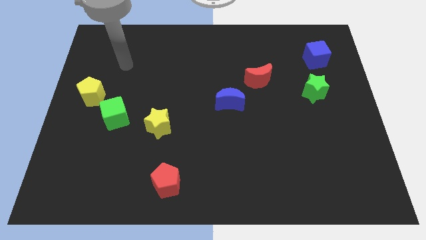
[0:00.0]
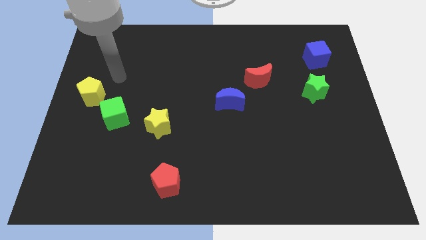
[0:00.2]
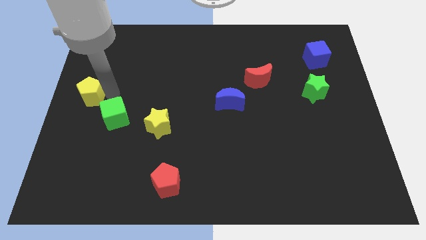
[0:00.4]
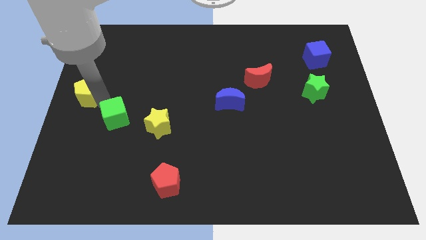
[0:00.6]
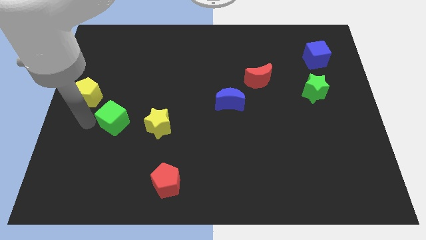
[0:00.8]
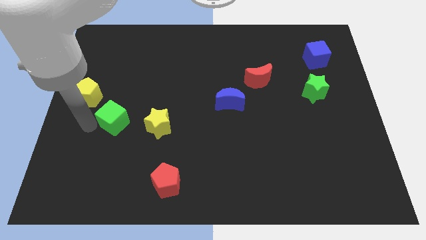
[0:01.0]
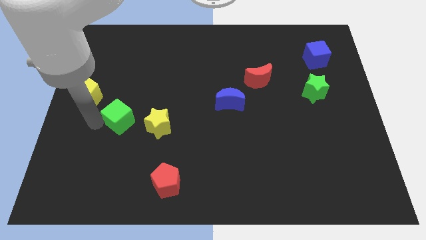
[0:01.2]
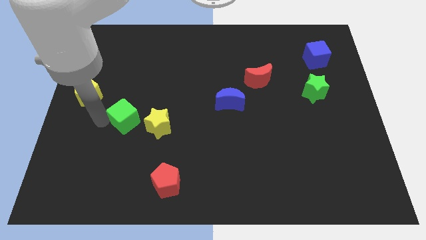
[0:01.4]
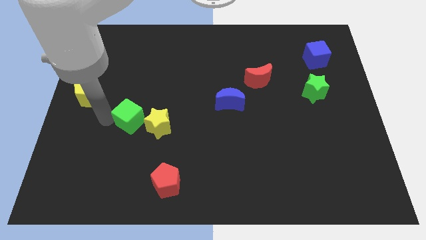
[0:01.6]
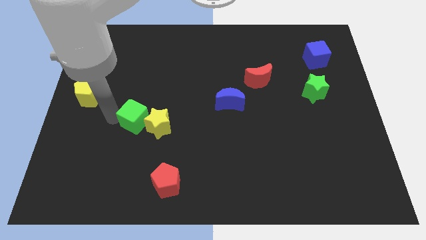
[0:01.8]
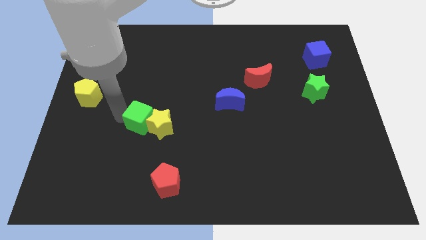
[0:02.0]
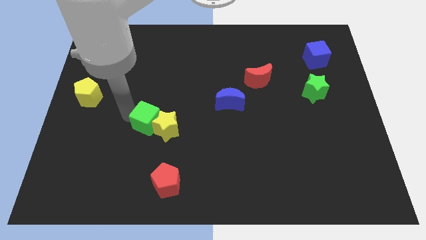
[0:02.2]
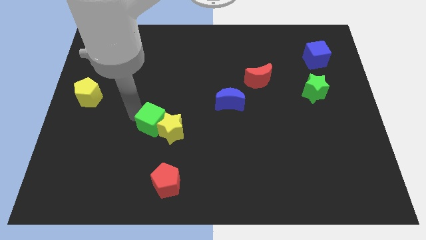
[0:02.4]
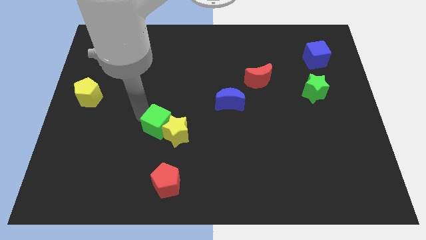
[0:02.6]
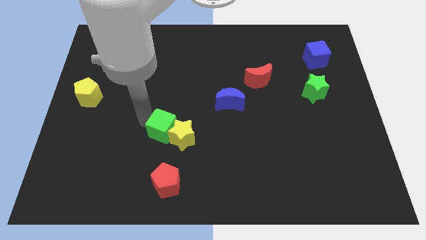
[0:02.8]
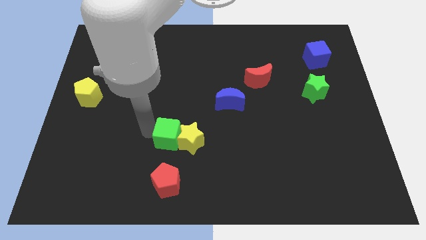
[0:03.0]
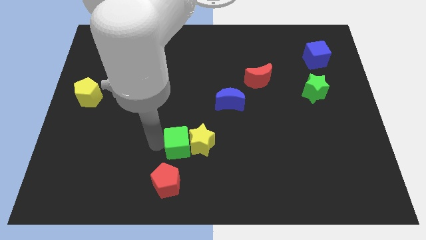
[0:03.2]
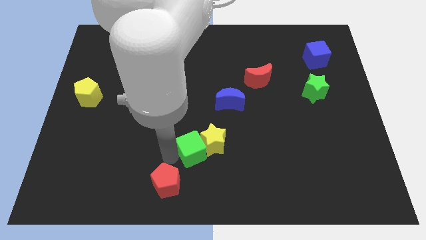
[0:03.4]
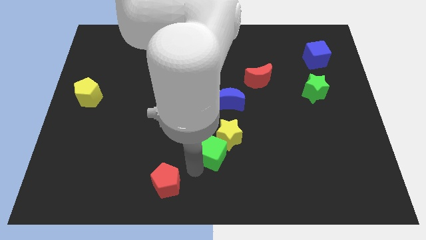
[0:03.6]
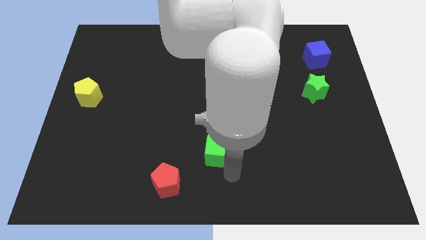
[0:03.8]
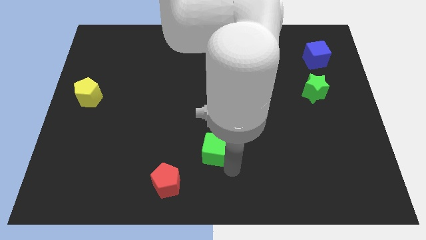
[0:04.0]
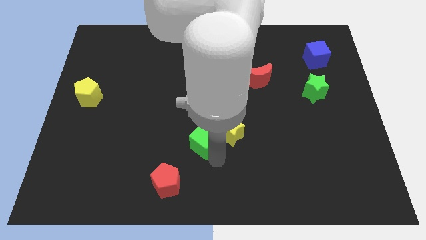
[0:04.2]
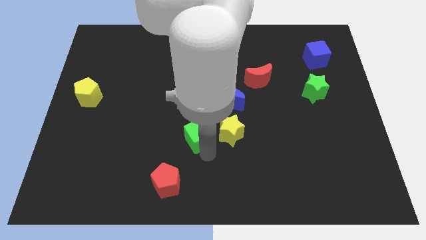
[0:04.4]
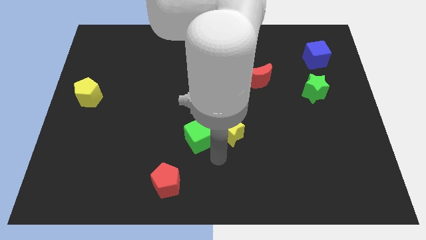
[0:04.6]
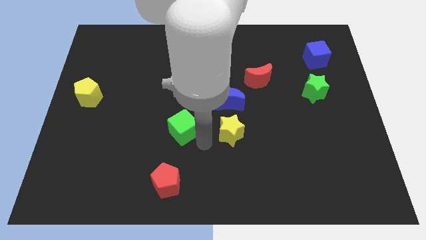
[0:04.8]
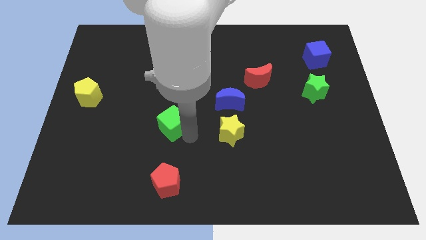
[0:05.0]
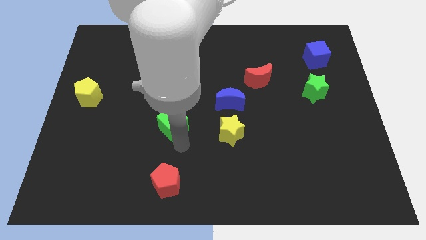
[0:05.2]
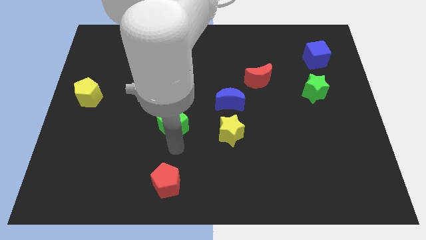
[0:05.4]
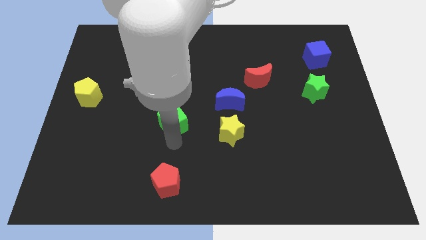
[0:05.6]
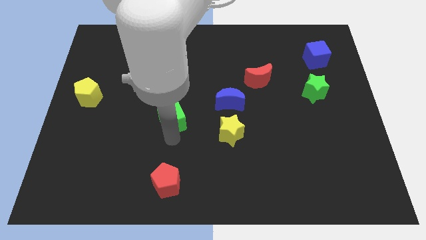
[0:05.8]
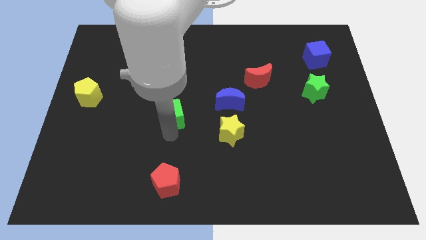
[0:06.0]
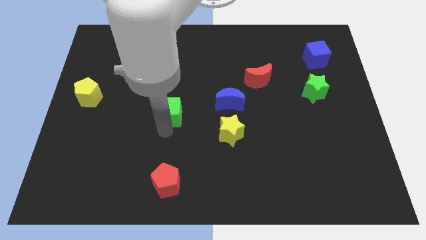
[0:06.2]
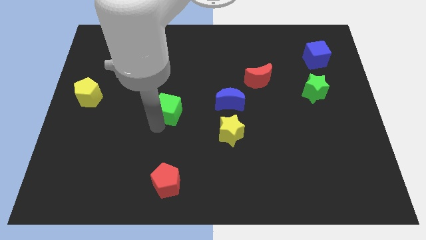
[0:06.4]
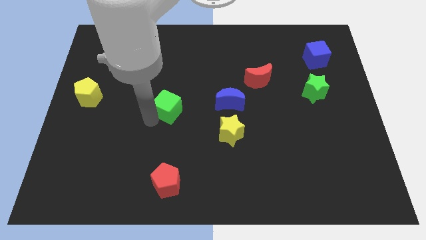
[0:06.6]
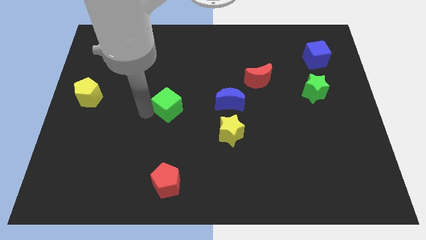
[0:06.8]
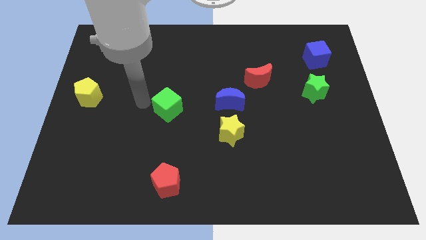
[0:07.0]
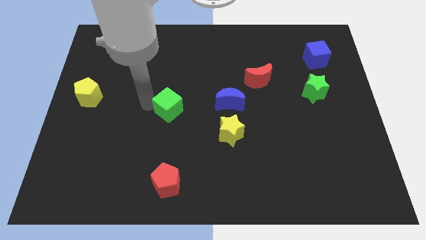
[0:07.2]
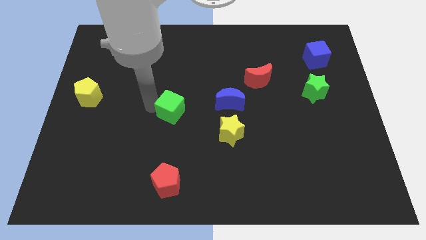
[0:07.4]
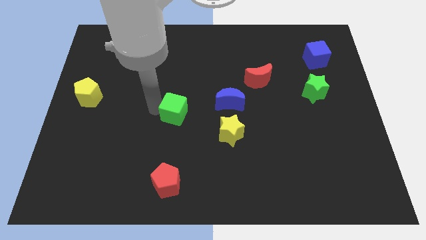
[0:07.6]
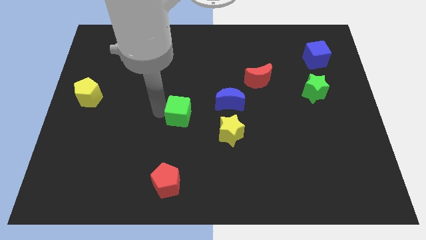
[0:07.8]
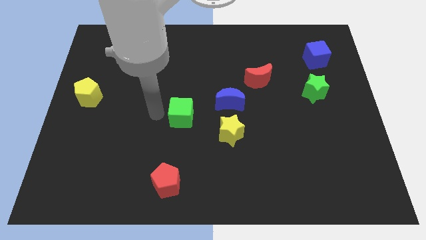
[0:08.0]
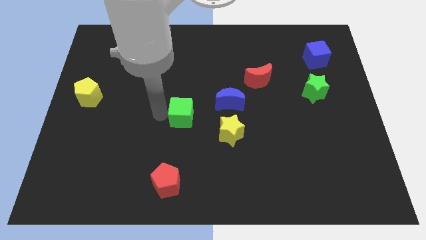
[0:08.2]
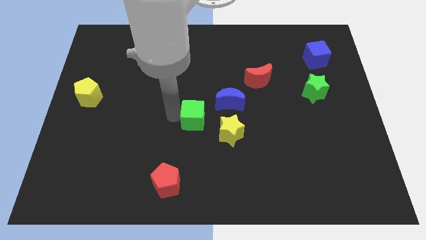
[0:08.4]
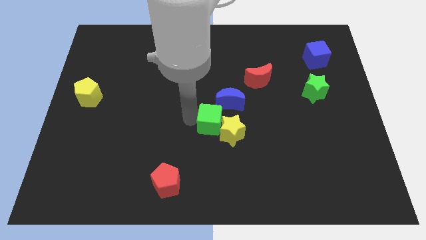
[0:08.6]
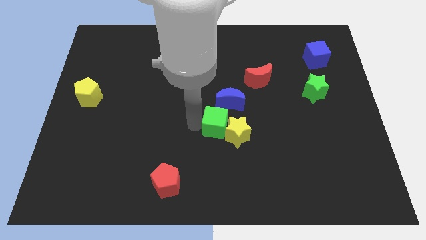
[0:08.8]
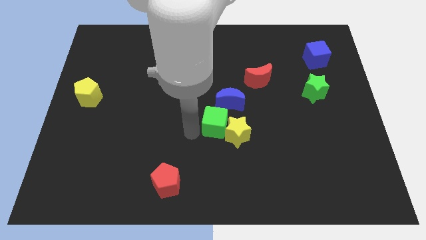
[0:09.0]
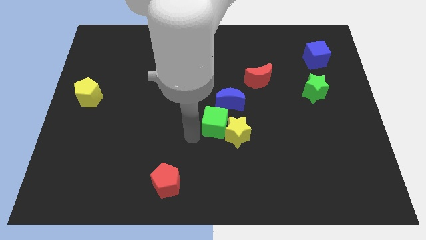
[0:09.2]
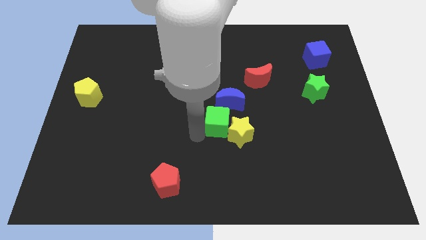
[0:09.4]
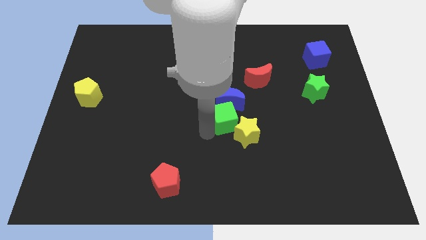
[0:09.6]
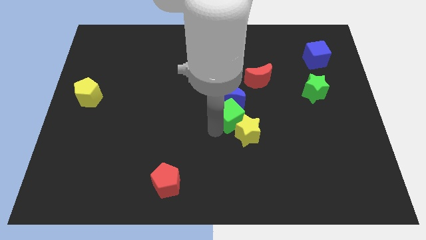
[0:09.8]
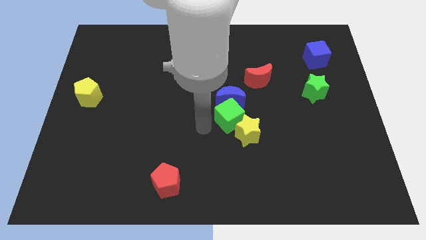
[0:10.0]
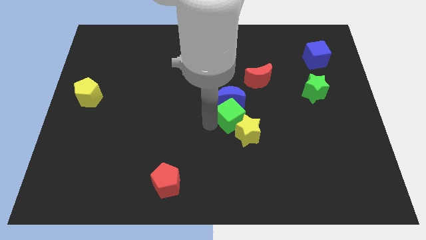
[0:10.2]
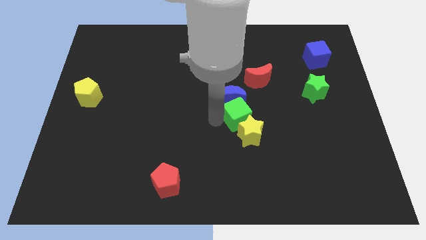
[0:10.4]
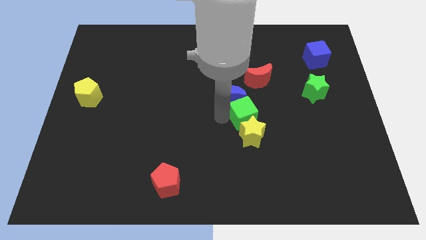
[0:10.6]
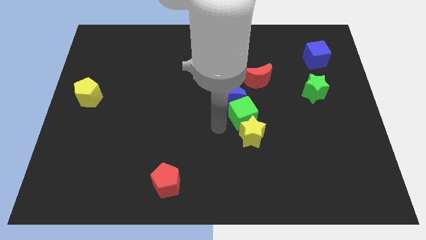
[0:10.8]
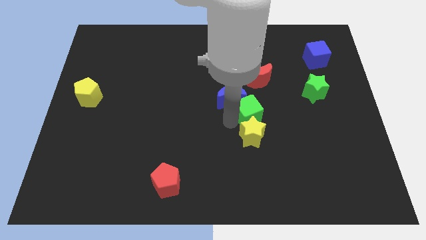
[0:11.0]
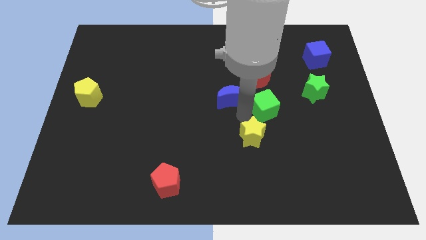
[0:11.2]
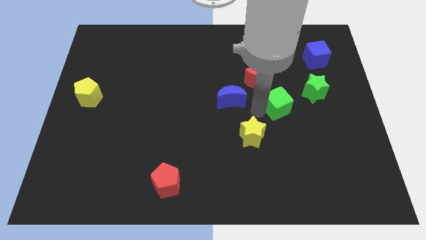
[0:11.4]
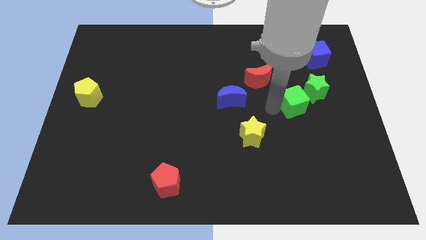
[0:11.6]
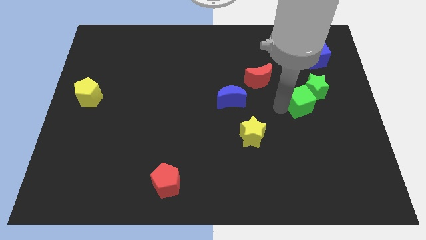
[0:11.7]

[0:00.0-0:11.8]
push the green cube next to the green star

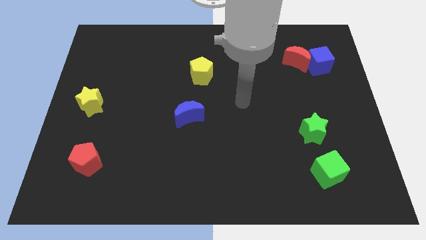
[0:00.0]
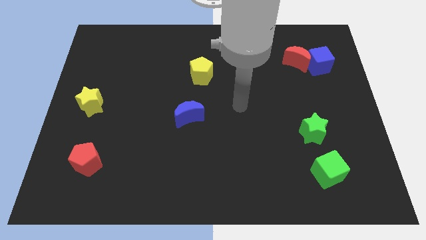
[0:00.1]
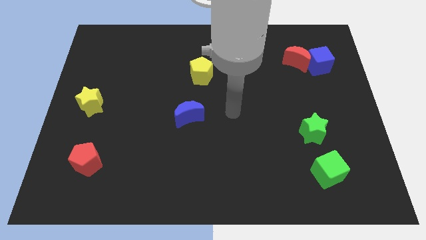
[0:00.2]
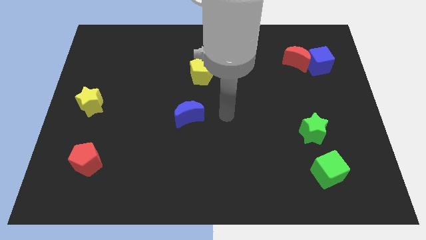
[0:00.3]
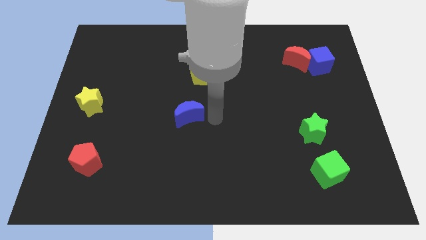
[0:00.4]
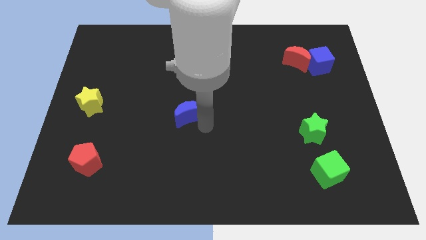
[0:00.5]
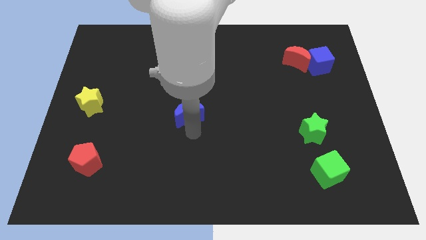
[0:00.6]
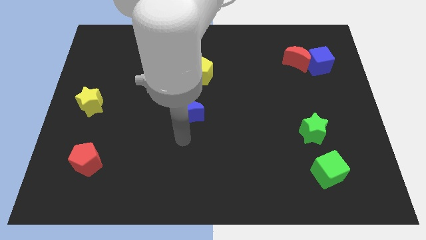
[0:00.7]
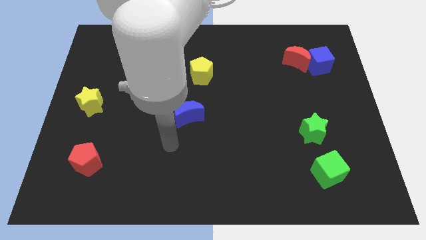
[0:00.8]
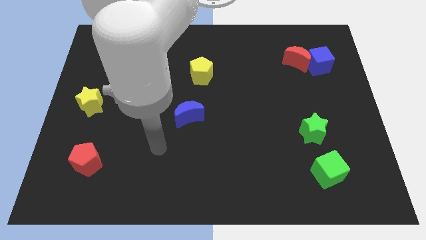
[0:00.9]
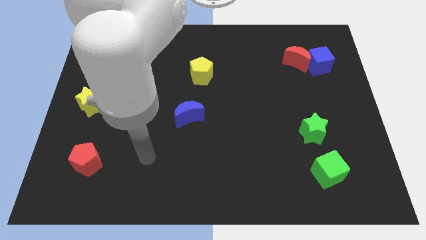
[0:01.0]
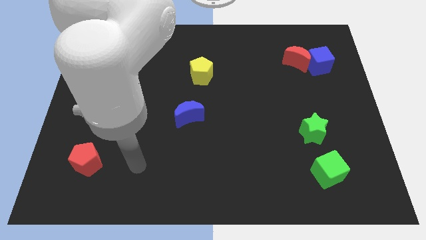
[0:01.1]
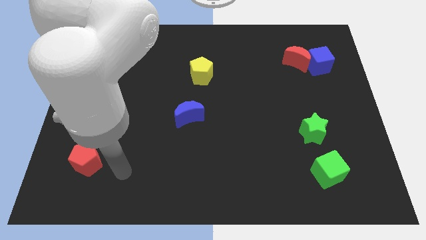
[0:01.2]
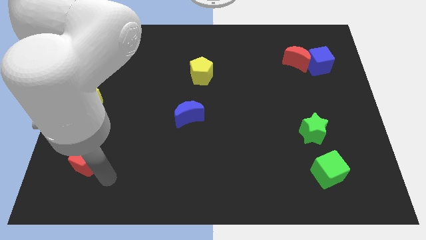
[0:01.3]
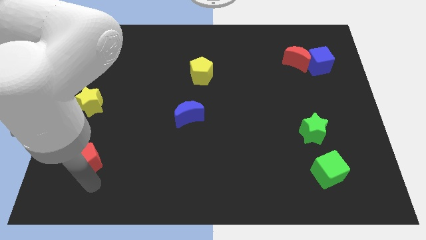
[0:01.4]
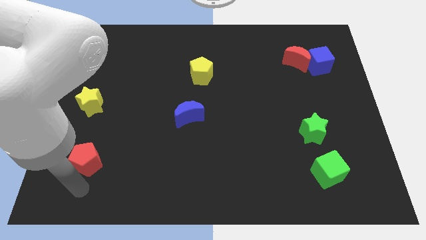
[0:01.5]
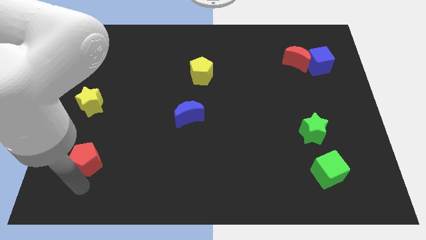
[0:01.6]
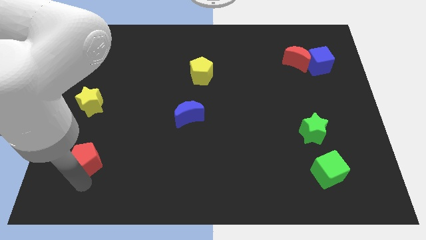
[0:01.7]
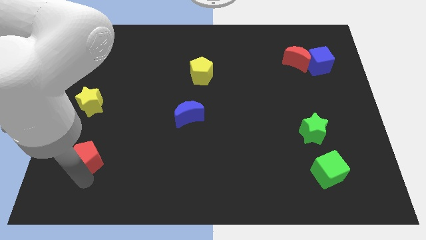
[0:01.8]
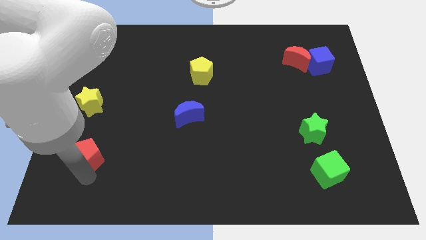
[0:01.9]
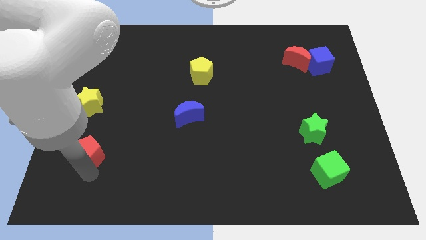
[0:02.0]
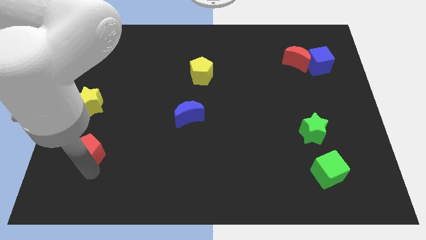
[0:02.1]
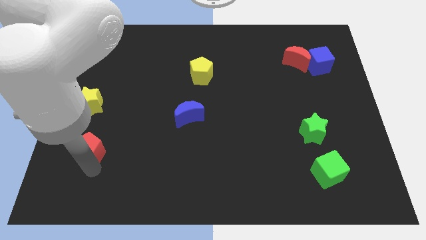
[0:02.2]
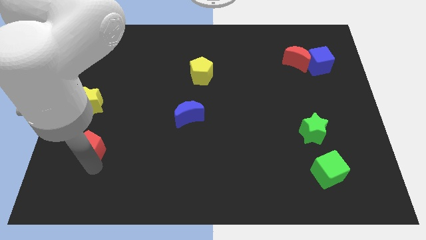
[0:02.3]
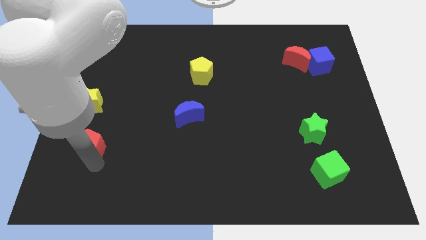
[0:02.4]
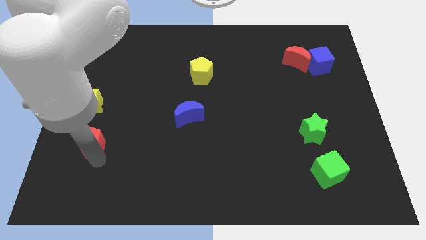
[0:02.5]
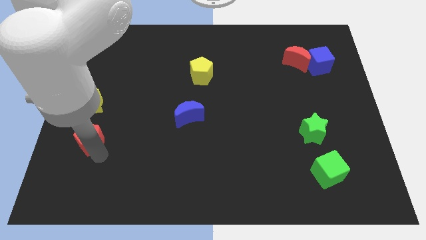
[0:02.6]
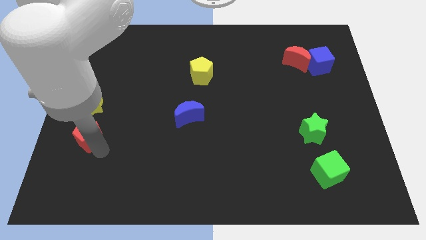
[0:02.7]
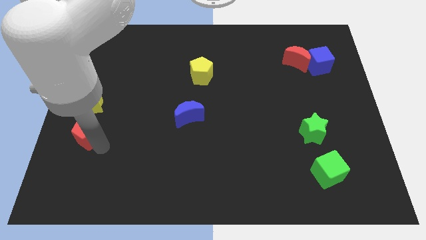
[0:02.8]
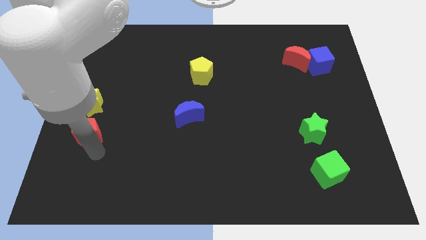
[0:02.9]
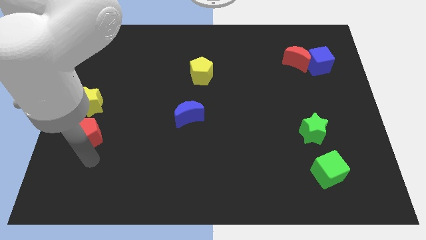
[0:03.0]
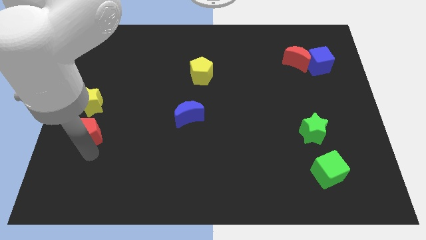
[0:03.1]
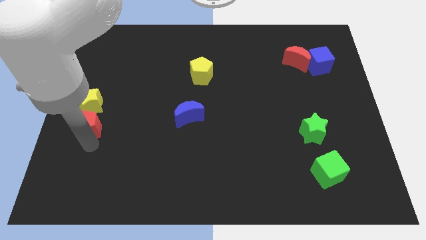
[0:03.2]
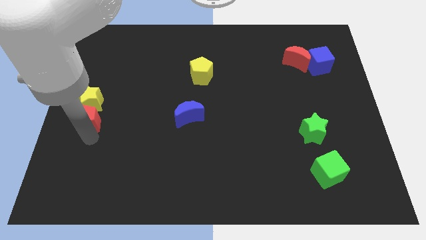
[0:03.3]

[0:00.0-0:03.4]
slide the red pentagon close to the yellow star
